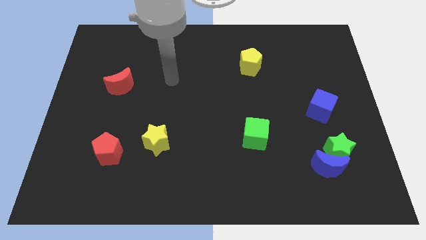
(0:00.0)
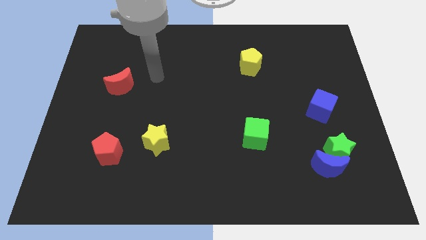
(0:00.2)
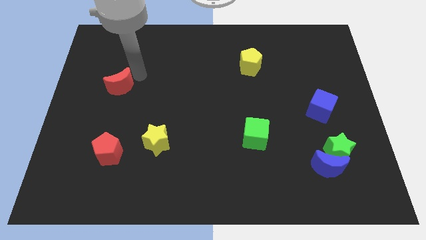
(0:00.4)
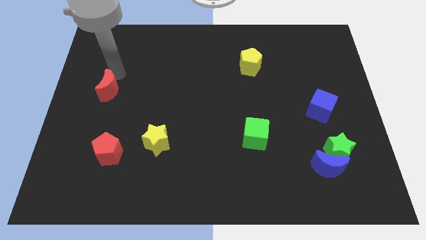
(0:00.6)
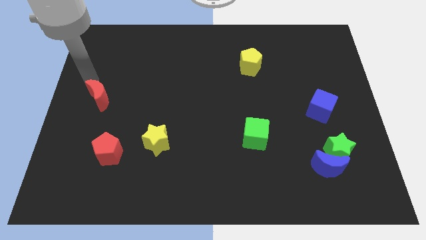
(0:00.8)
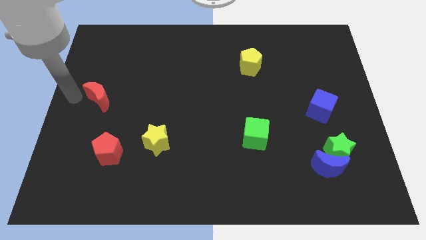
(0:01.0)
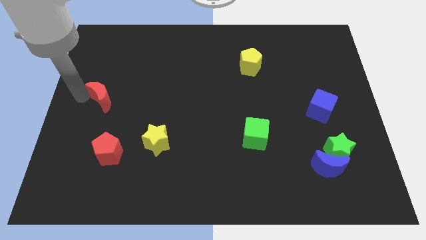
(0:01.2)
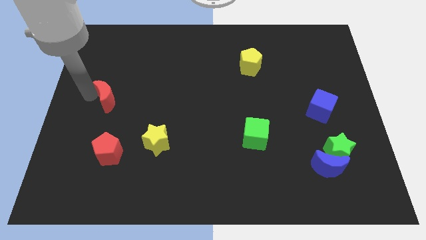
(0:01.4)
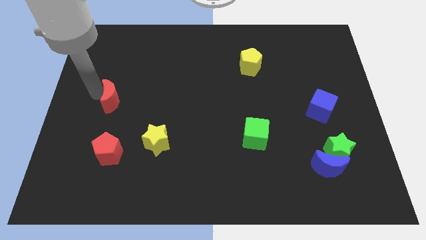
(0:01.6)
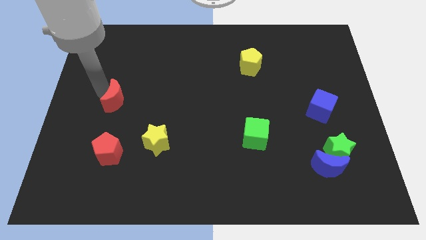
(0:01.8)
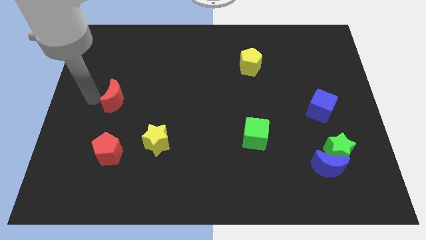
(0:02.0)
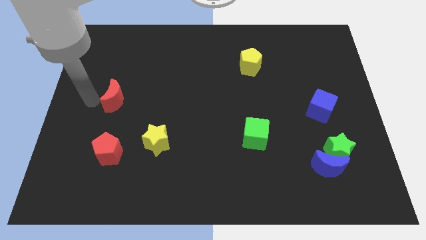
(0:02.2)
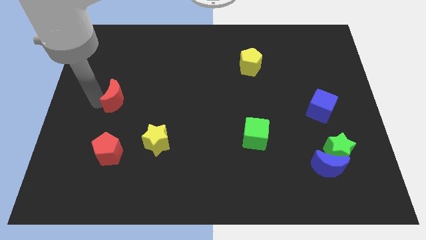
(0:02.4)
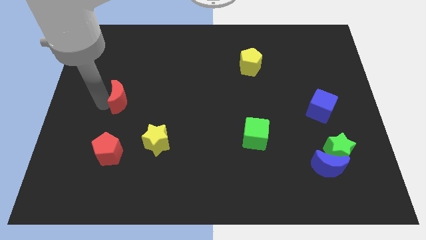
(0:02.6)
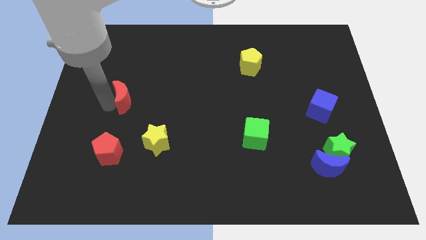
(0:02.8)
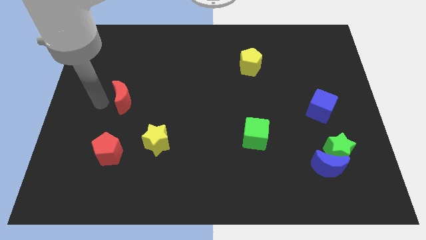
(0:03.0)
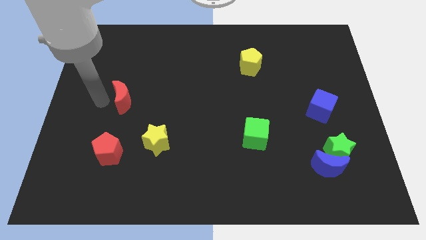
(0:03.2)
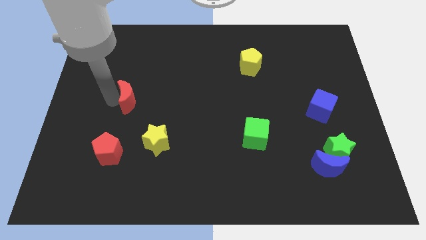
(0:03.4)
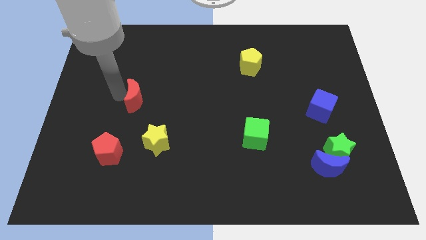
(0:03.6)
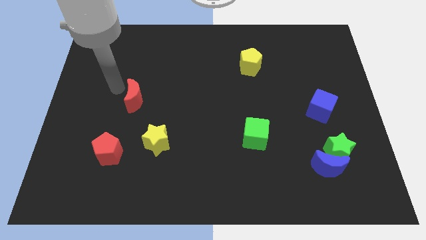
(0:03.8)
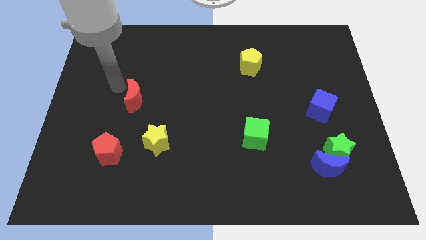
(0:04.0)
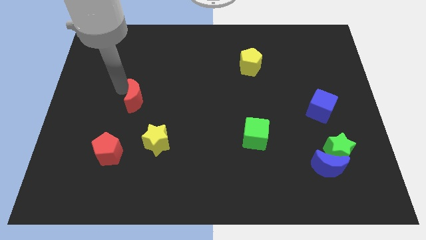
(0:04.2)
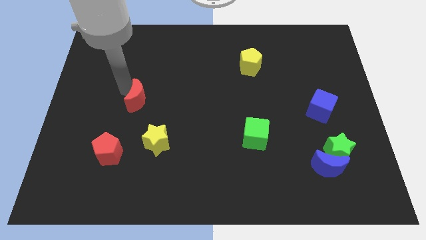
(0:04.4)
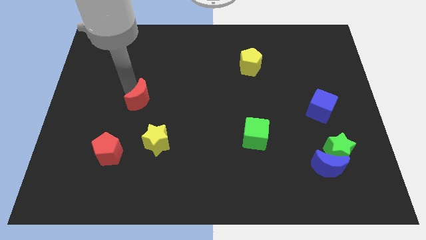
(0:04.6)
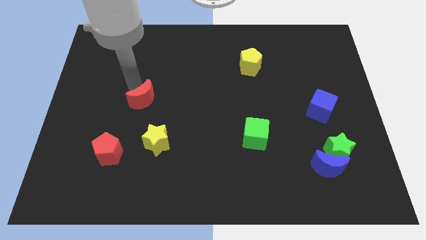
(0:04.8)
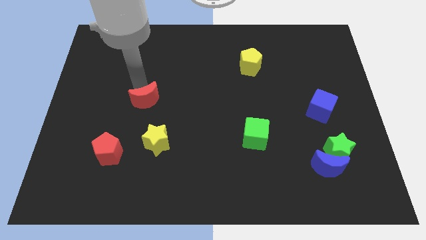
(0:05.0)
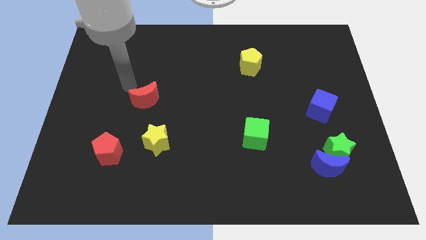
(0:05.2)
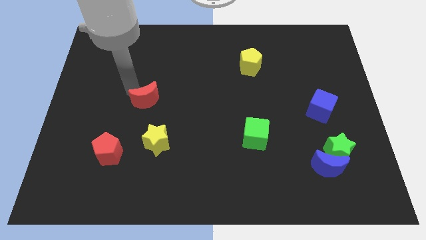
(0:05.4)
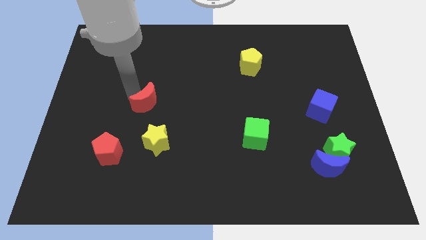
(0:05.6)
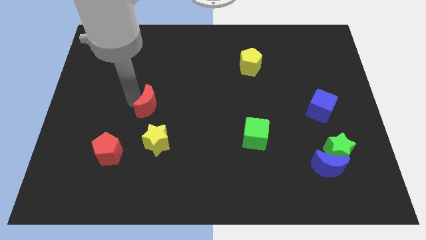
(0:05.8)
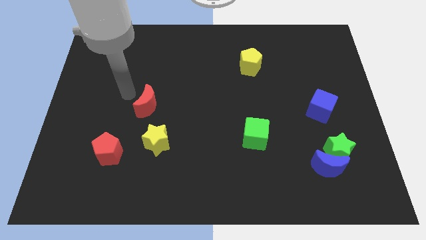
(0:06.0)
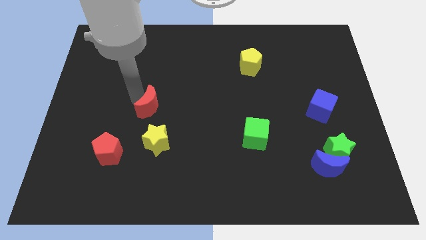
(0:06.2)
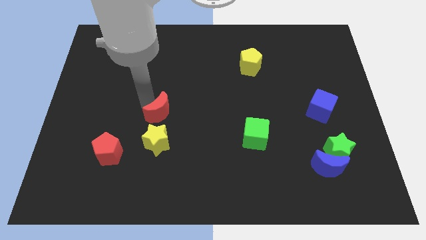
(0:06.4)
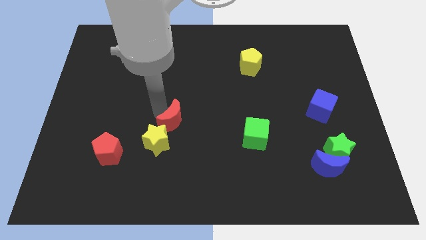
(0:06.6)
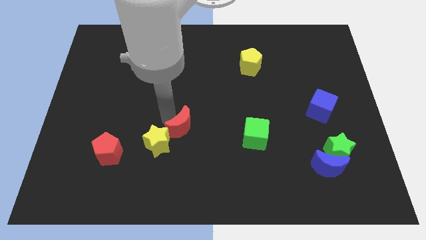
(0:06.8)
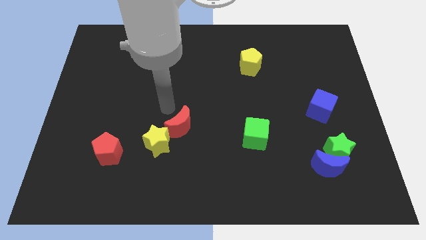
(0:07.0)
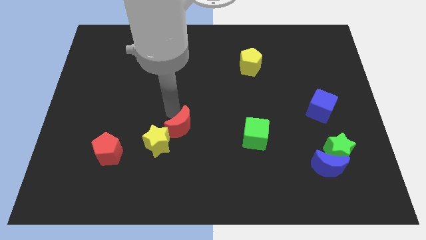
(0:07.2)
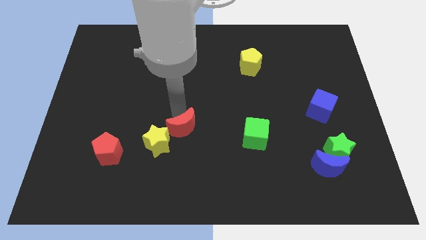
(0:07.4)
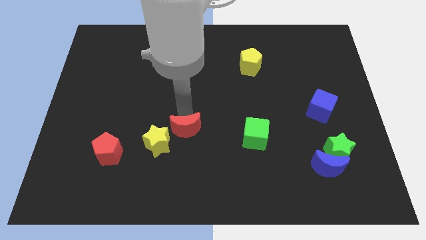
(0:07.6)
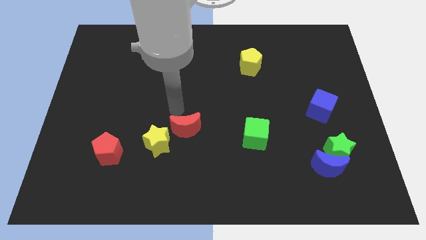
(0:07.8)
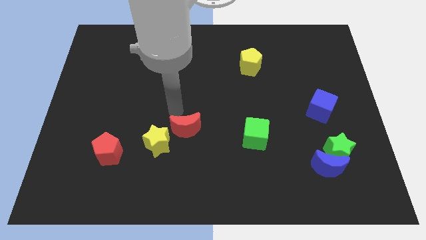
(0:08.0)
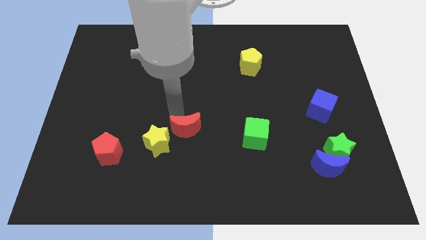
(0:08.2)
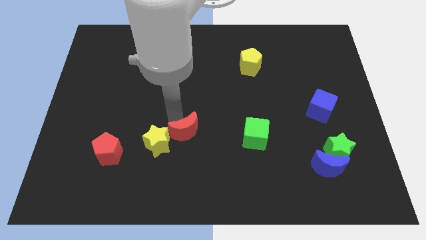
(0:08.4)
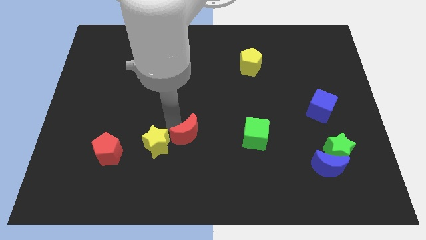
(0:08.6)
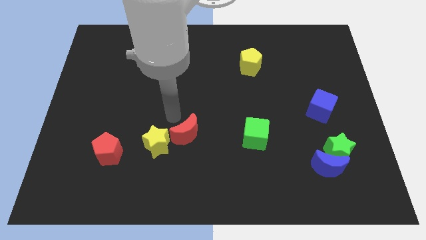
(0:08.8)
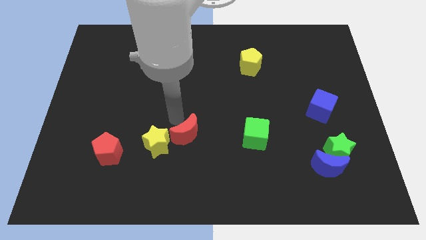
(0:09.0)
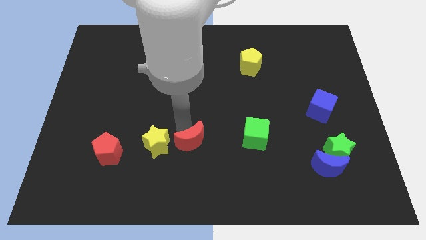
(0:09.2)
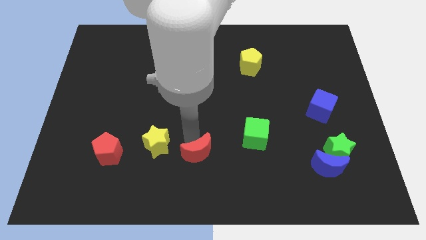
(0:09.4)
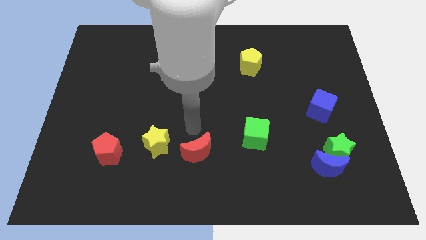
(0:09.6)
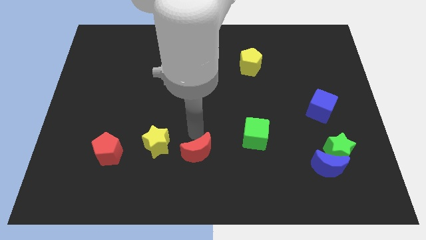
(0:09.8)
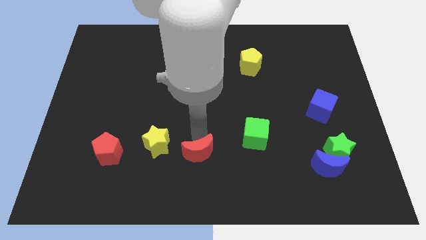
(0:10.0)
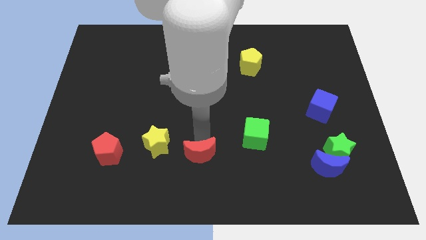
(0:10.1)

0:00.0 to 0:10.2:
put the red moon to the bottom side

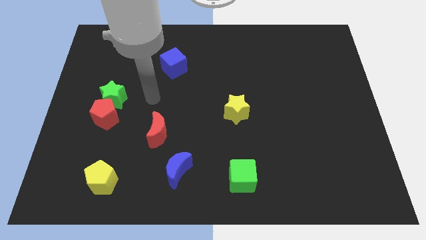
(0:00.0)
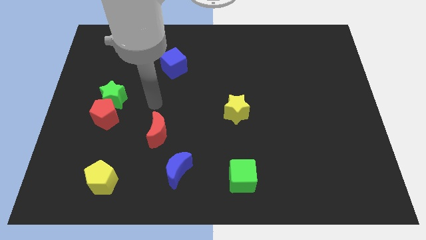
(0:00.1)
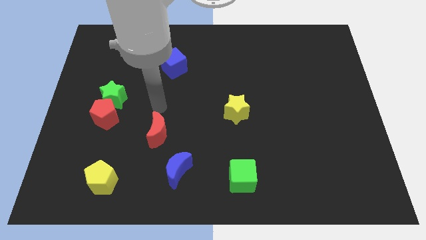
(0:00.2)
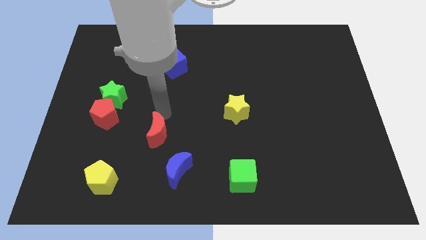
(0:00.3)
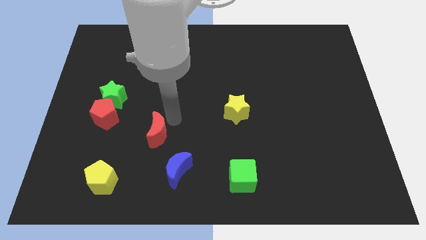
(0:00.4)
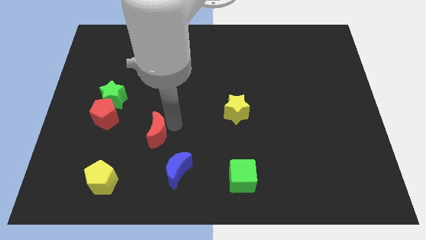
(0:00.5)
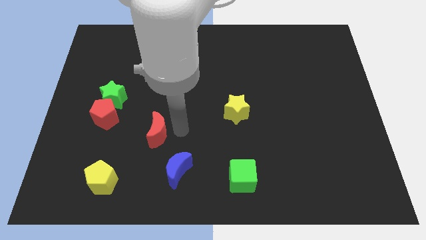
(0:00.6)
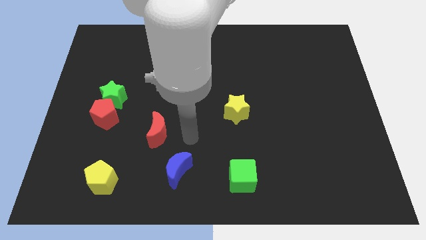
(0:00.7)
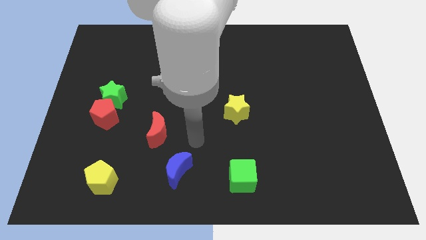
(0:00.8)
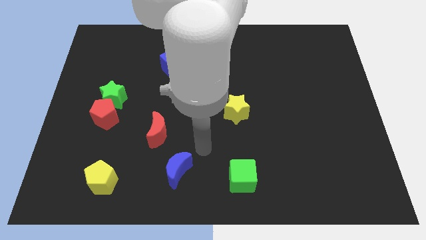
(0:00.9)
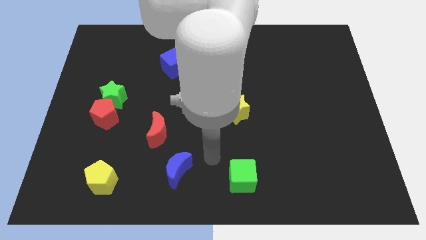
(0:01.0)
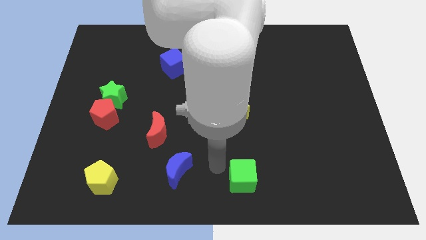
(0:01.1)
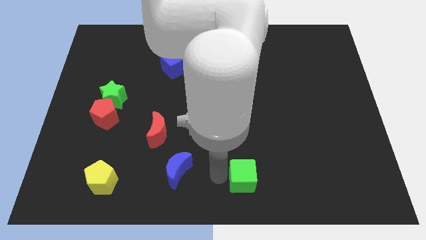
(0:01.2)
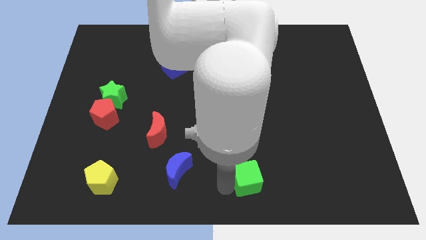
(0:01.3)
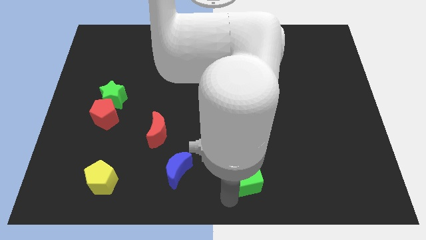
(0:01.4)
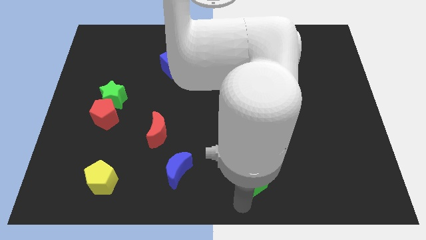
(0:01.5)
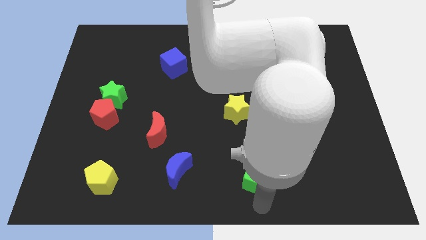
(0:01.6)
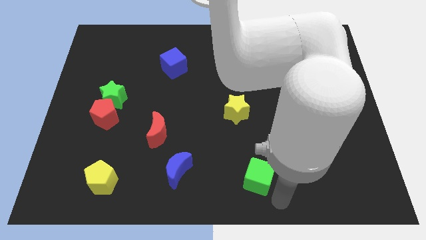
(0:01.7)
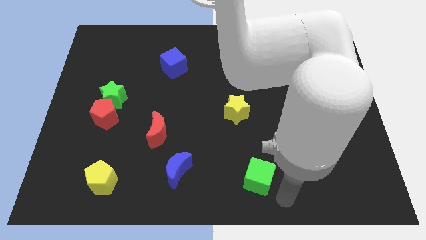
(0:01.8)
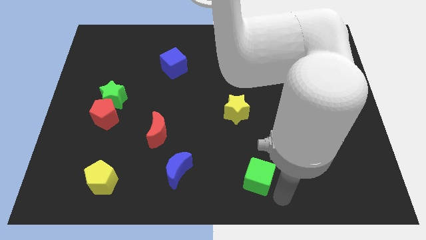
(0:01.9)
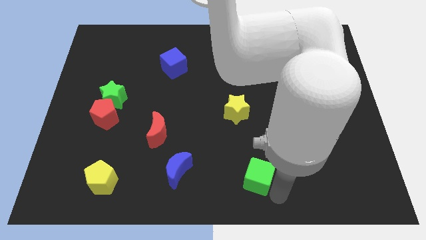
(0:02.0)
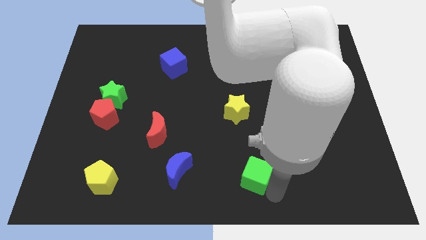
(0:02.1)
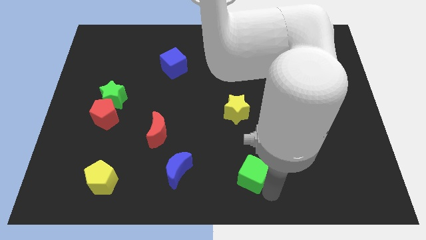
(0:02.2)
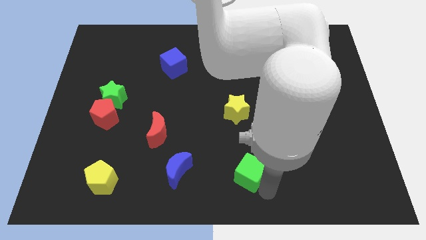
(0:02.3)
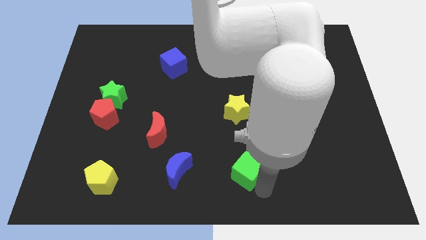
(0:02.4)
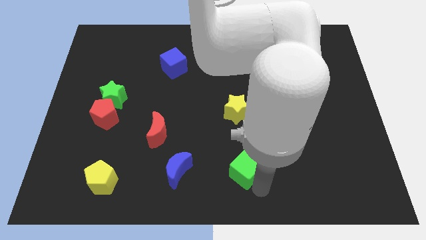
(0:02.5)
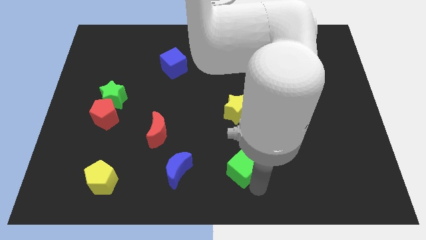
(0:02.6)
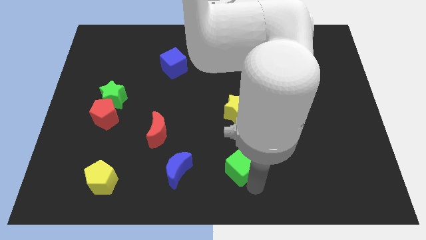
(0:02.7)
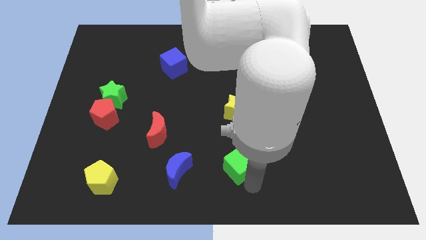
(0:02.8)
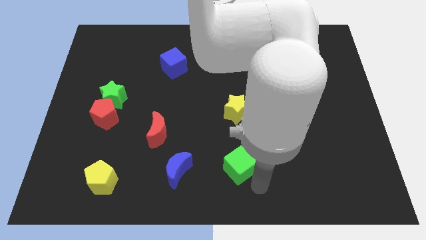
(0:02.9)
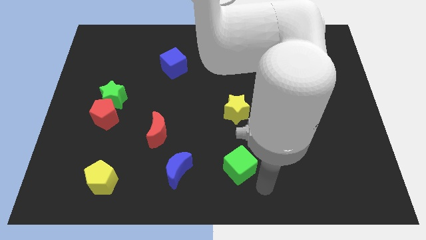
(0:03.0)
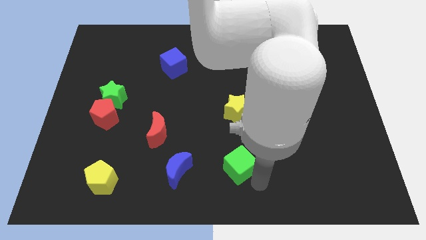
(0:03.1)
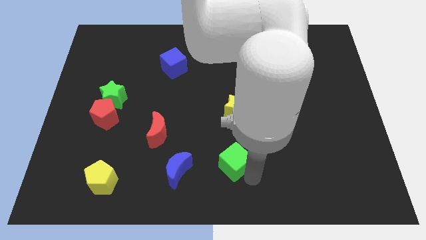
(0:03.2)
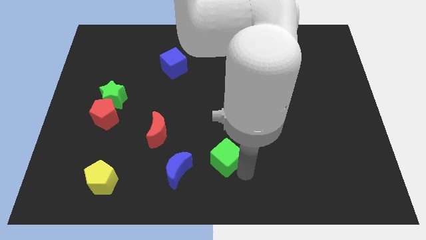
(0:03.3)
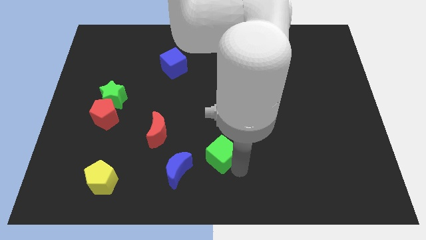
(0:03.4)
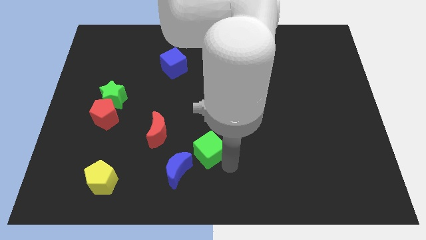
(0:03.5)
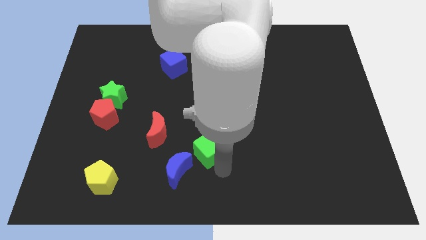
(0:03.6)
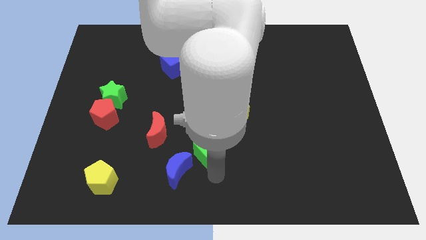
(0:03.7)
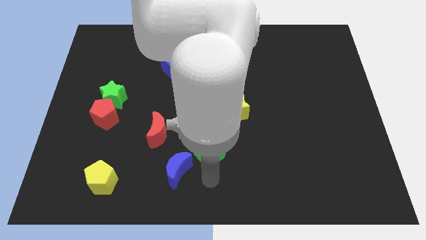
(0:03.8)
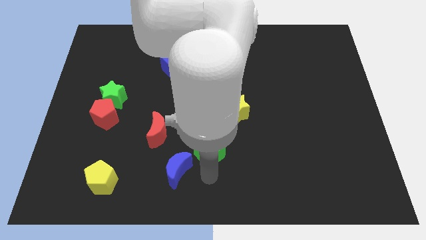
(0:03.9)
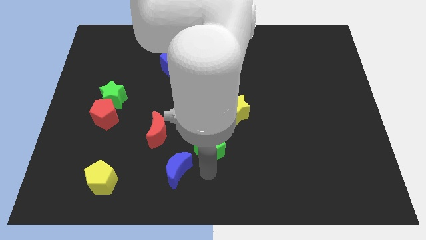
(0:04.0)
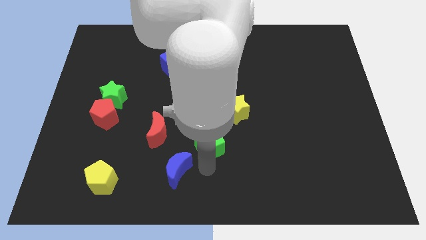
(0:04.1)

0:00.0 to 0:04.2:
slide the green cube to the middle
